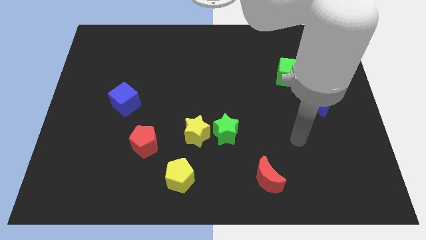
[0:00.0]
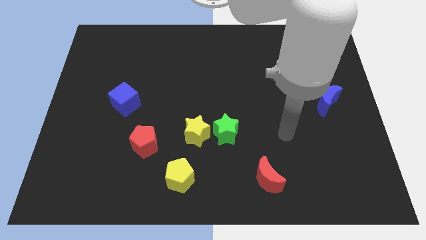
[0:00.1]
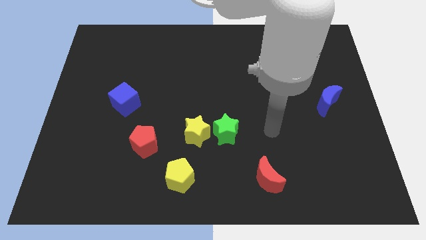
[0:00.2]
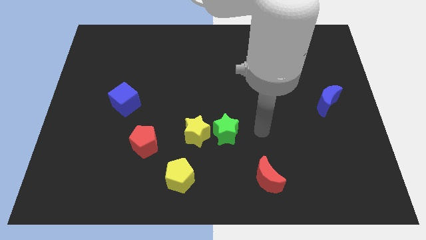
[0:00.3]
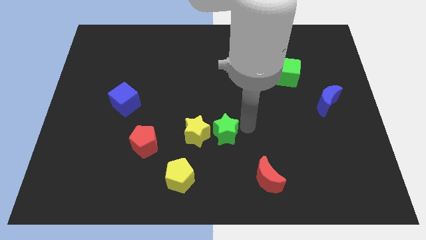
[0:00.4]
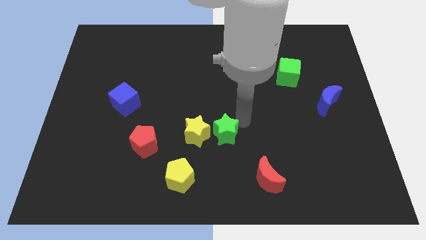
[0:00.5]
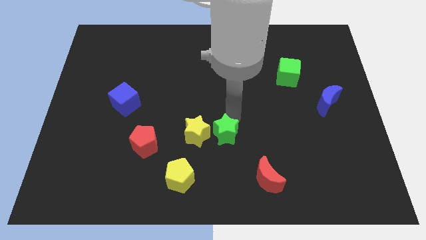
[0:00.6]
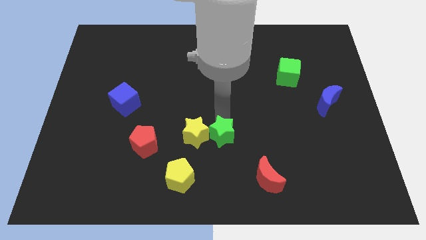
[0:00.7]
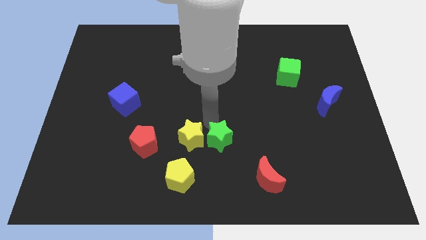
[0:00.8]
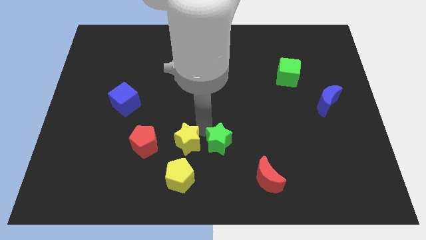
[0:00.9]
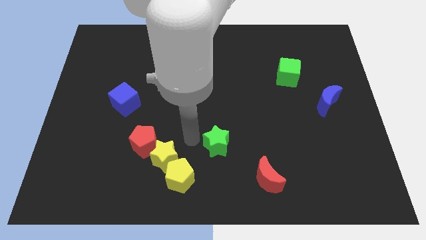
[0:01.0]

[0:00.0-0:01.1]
pull the green star apart from the yellow star

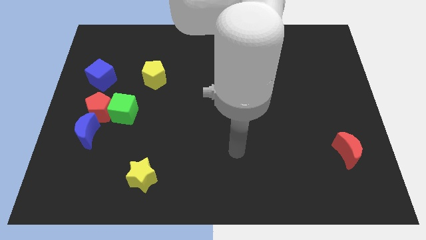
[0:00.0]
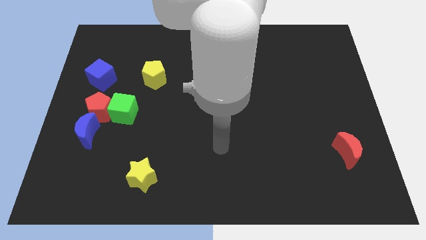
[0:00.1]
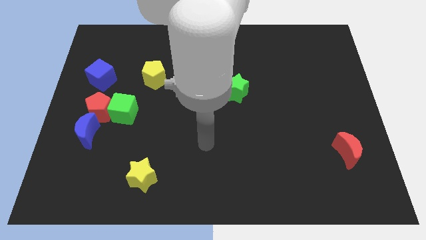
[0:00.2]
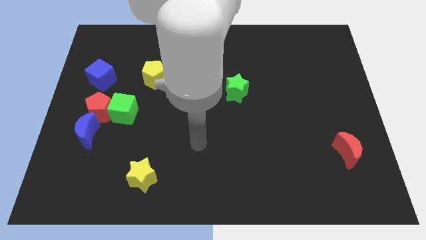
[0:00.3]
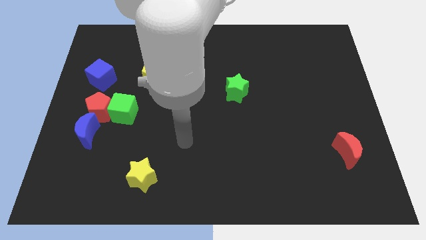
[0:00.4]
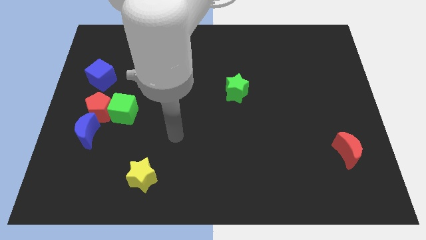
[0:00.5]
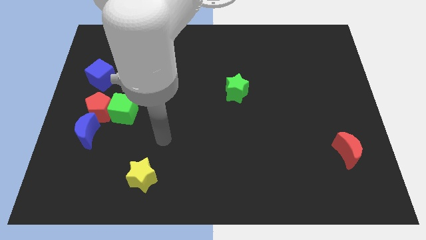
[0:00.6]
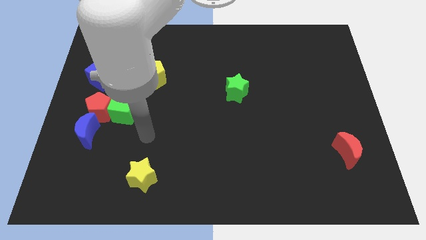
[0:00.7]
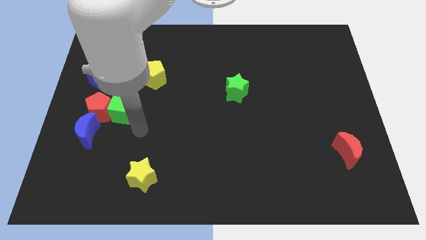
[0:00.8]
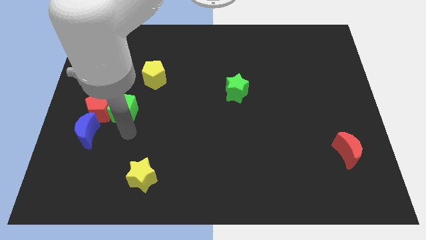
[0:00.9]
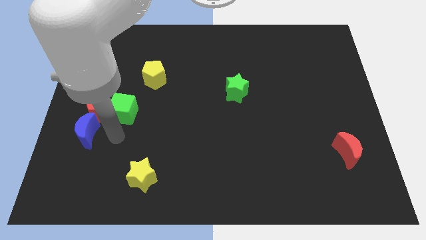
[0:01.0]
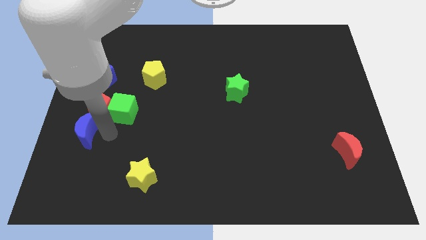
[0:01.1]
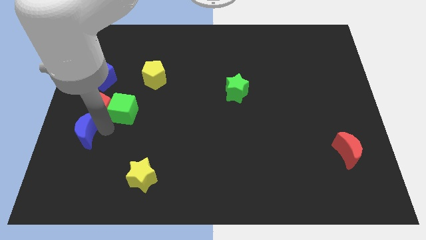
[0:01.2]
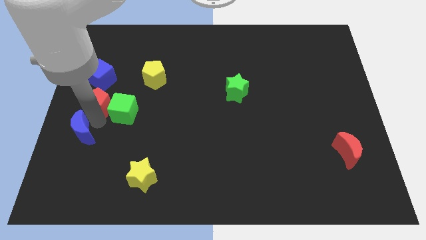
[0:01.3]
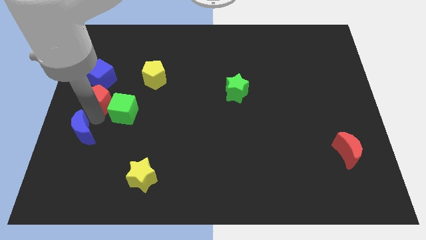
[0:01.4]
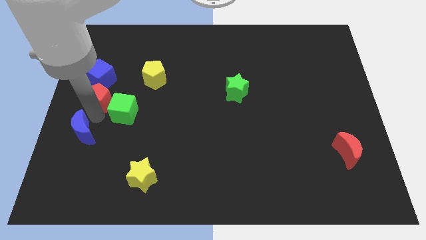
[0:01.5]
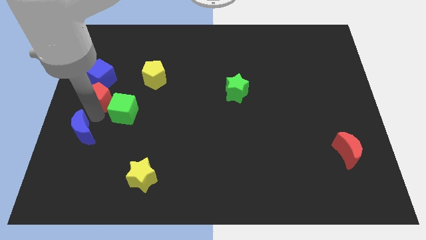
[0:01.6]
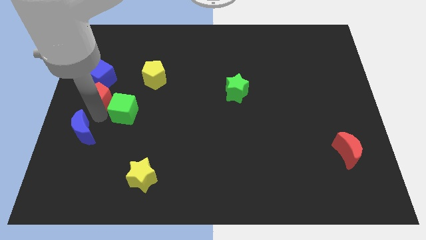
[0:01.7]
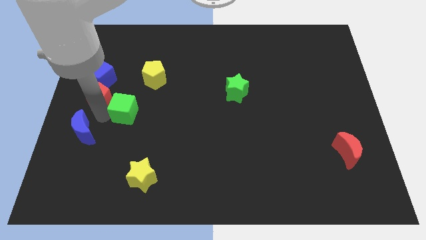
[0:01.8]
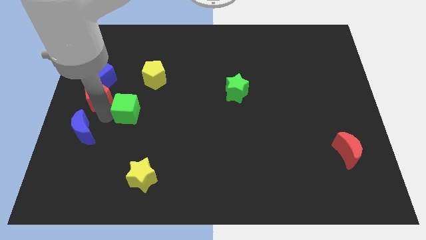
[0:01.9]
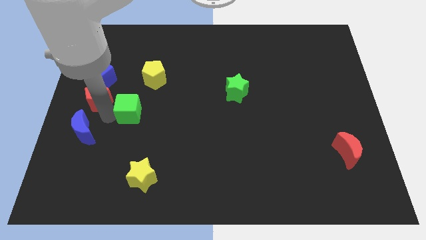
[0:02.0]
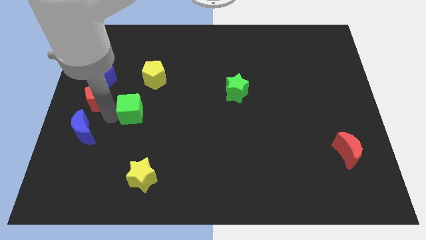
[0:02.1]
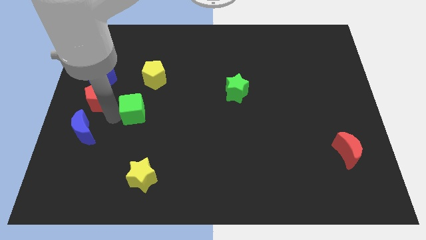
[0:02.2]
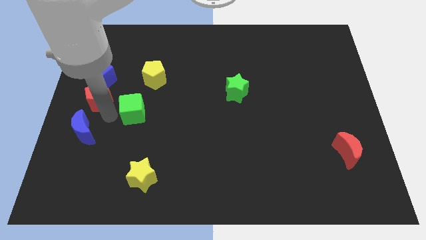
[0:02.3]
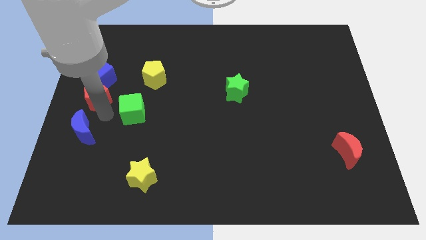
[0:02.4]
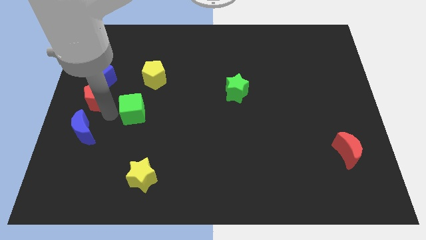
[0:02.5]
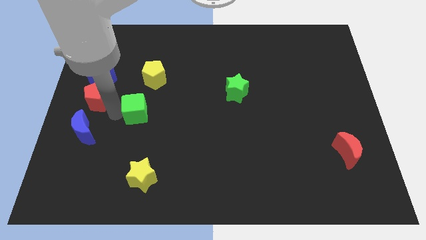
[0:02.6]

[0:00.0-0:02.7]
move the green cube away from the red pentagon and blue moon

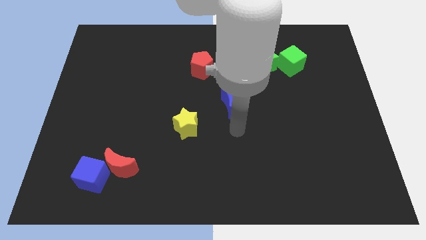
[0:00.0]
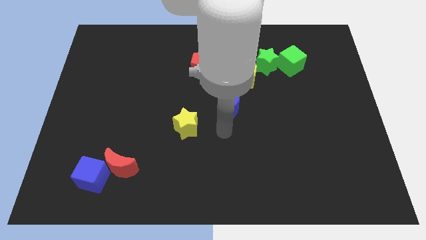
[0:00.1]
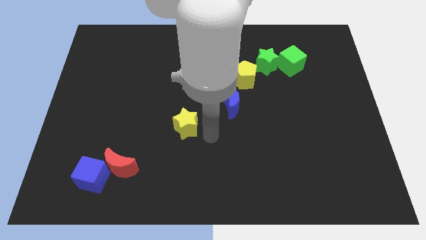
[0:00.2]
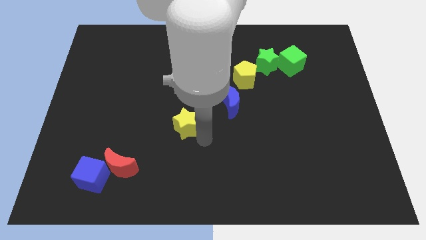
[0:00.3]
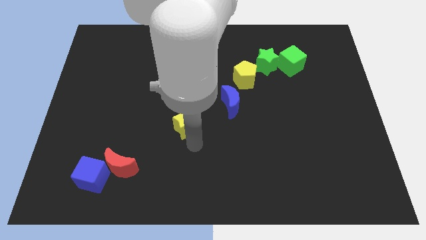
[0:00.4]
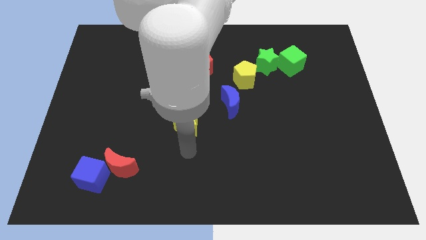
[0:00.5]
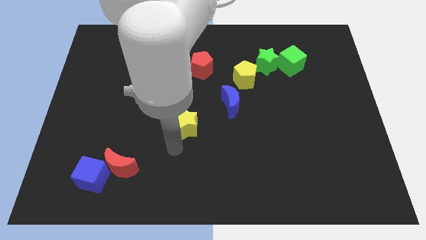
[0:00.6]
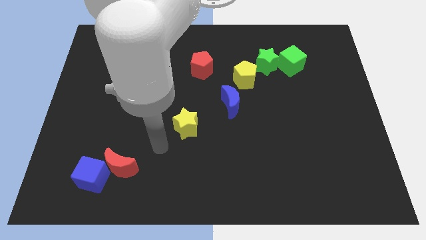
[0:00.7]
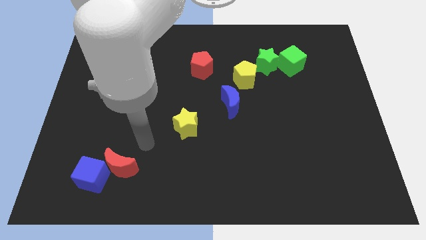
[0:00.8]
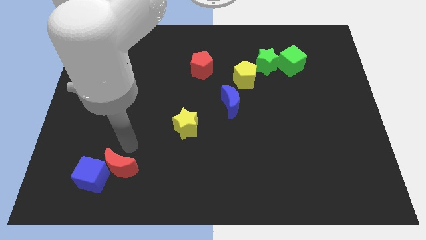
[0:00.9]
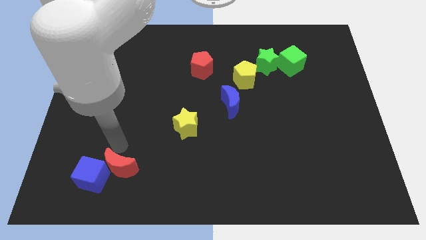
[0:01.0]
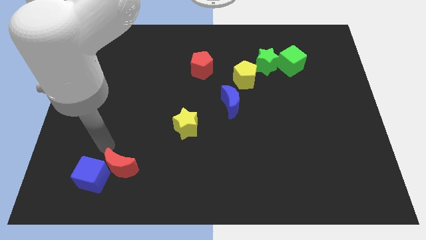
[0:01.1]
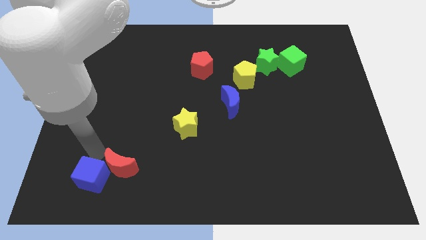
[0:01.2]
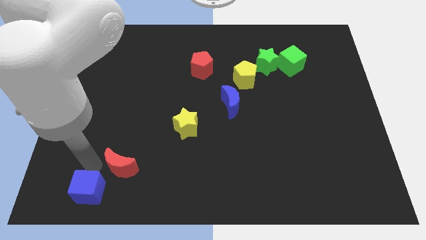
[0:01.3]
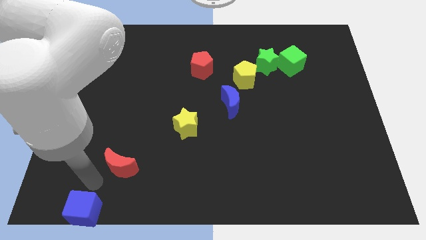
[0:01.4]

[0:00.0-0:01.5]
separate the red moon from the blue cube

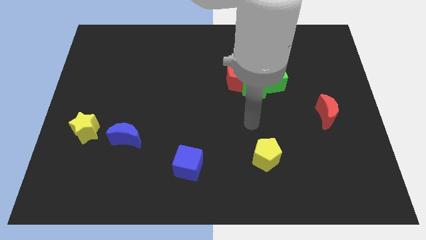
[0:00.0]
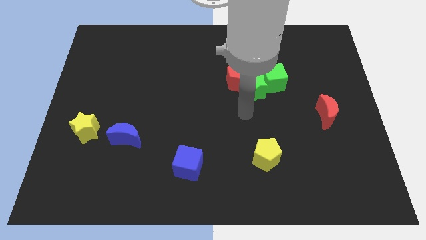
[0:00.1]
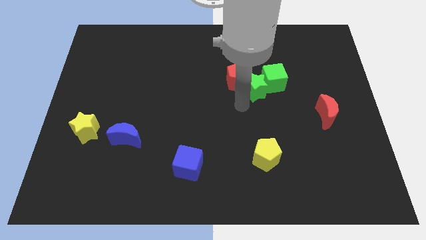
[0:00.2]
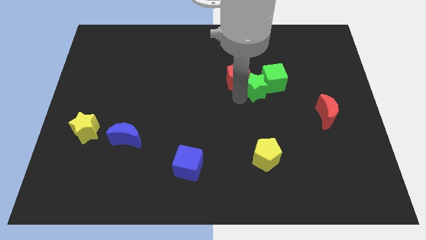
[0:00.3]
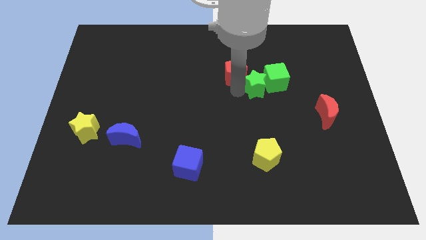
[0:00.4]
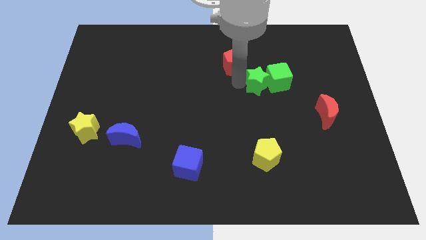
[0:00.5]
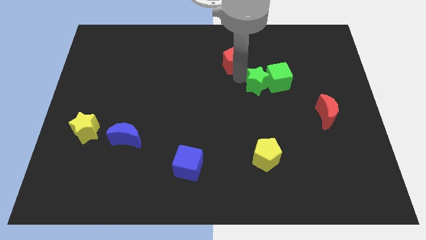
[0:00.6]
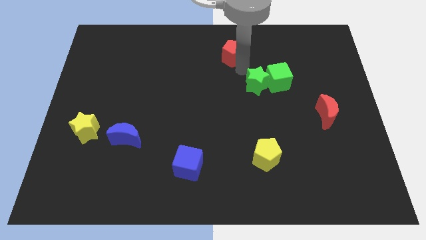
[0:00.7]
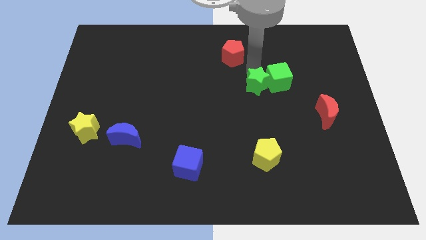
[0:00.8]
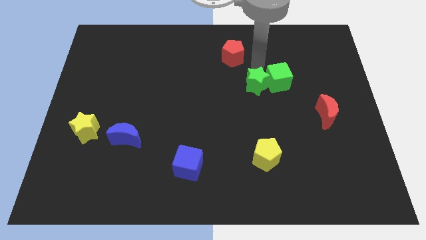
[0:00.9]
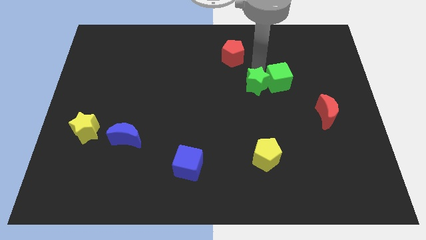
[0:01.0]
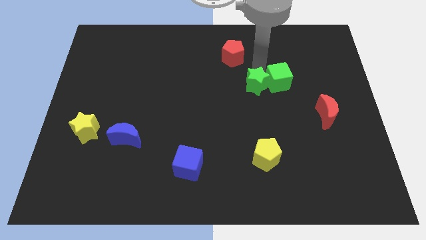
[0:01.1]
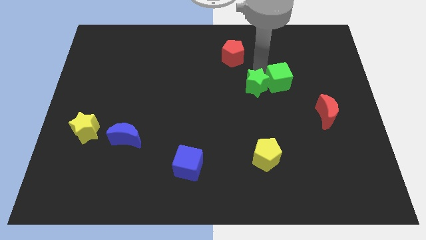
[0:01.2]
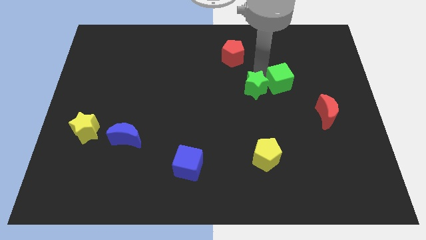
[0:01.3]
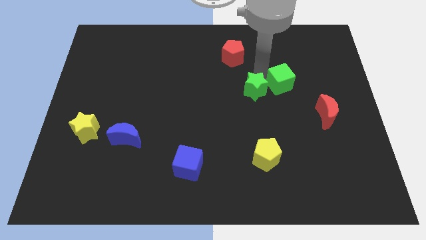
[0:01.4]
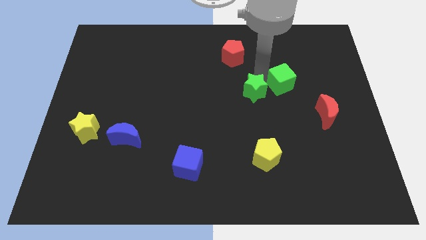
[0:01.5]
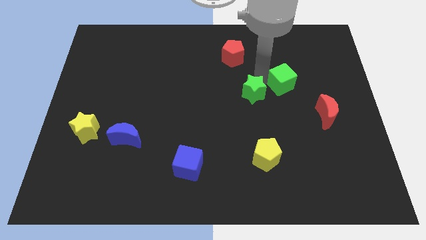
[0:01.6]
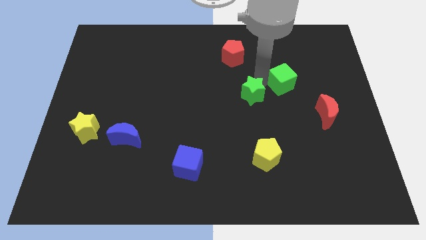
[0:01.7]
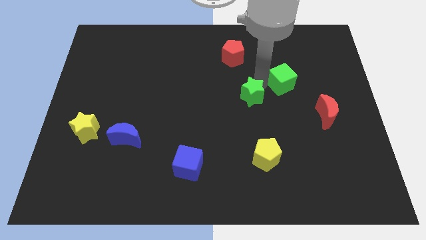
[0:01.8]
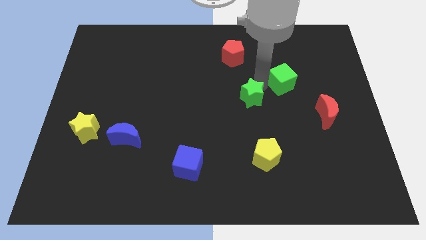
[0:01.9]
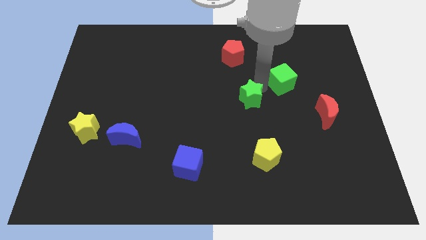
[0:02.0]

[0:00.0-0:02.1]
move the green star away from the red pentagon and green cube

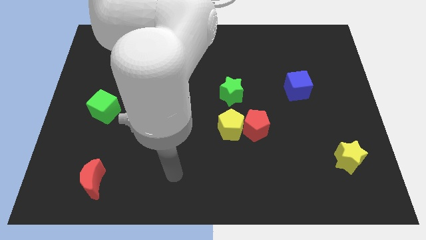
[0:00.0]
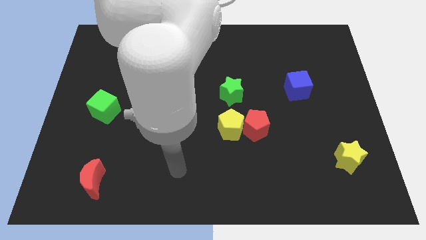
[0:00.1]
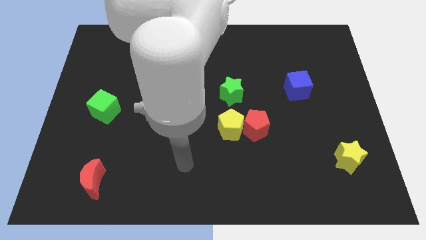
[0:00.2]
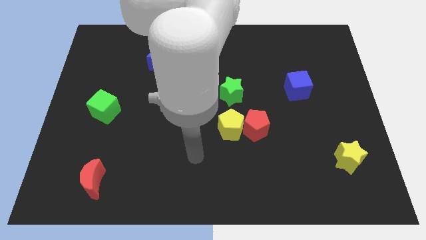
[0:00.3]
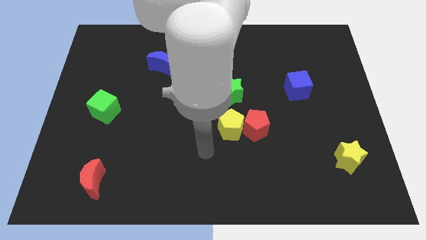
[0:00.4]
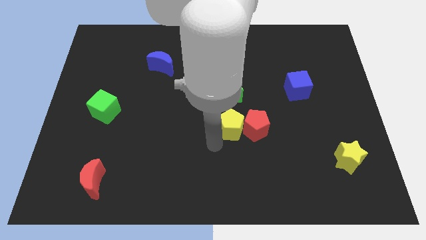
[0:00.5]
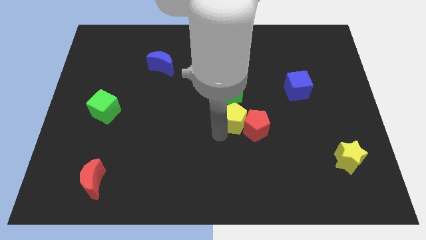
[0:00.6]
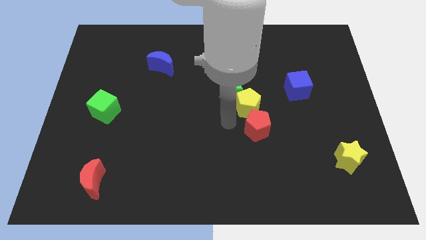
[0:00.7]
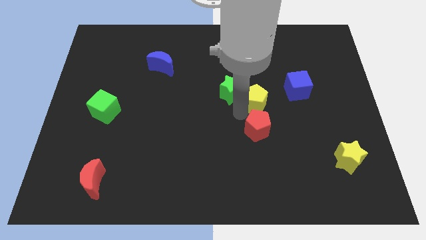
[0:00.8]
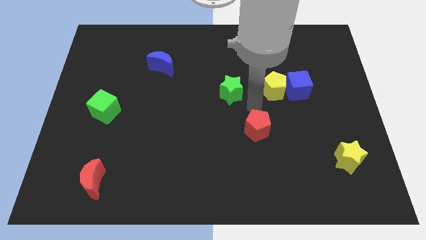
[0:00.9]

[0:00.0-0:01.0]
separate the red pentagon from the yellow pentagon

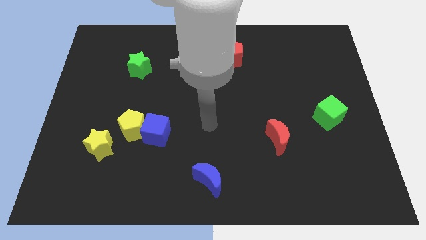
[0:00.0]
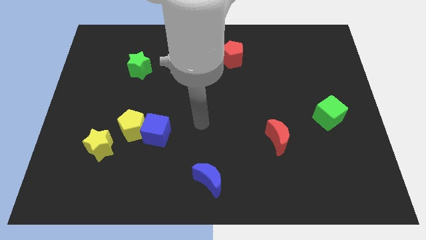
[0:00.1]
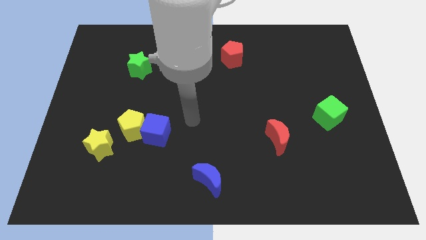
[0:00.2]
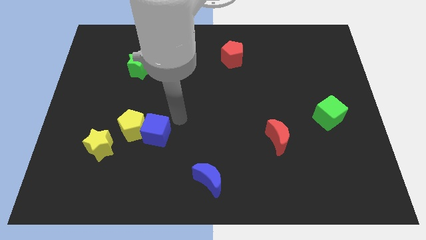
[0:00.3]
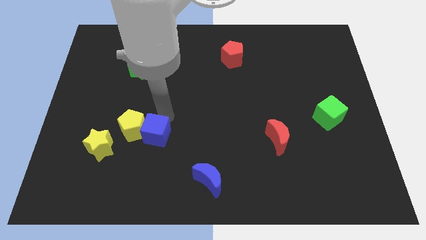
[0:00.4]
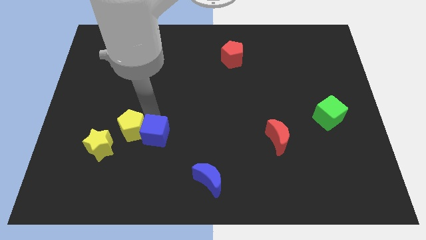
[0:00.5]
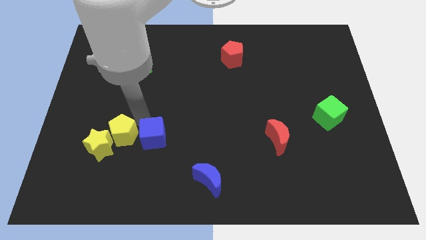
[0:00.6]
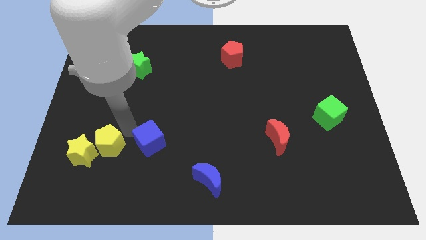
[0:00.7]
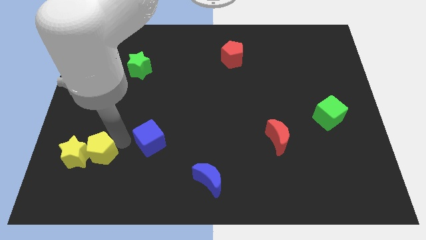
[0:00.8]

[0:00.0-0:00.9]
move the blue cube away from the yellow pentagon

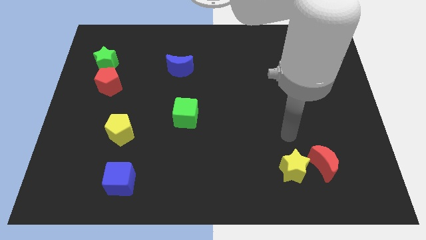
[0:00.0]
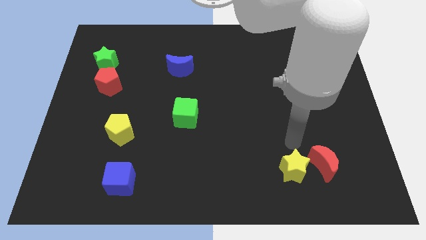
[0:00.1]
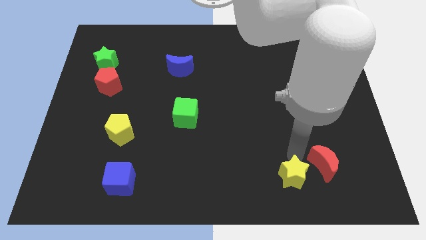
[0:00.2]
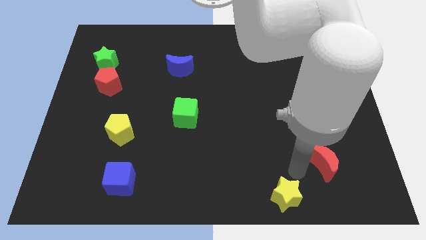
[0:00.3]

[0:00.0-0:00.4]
move the red moon away from the yellow star
